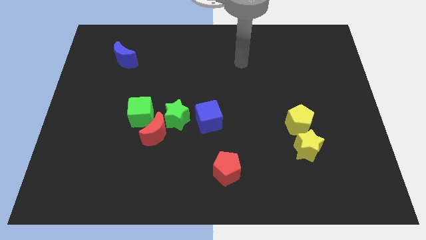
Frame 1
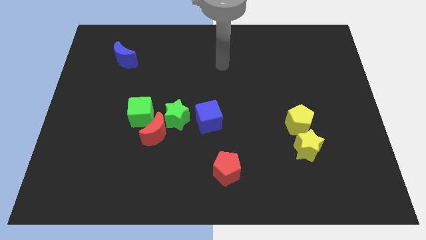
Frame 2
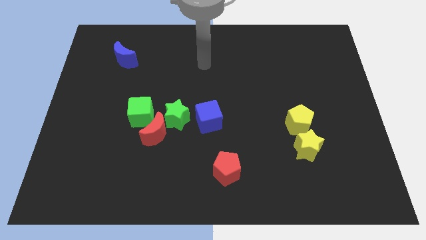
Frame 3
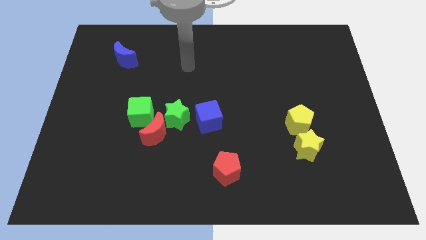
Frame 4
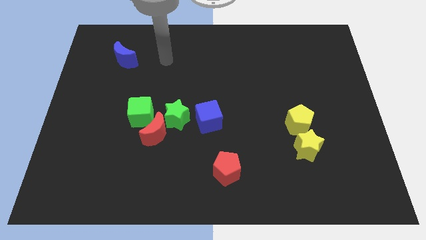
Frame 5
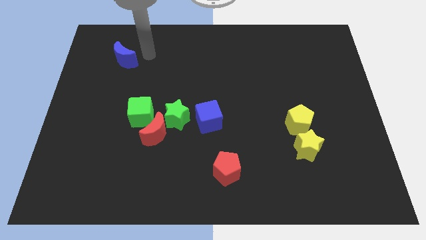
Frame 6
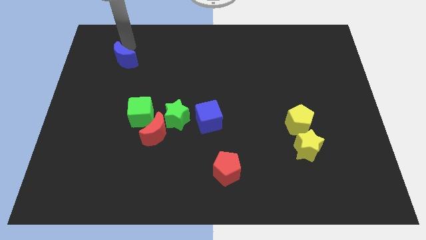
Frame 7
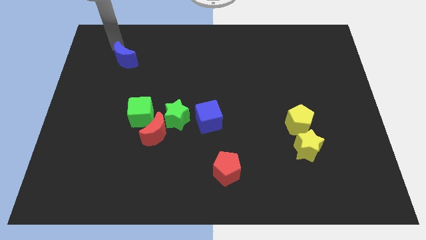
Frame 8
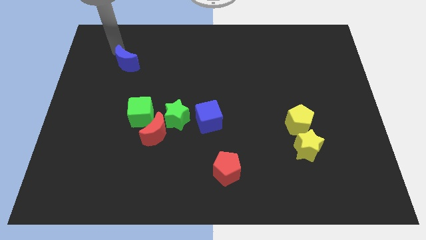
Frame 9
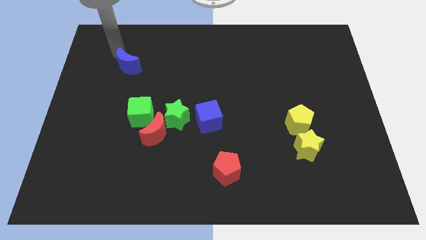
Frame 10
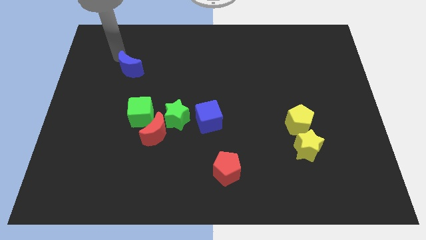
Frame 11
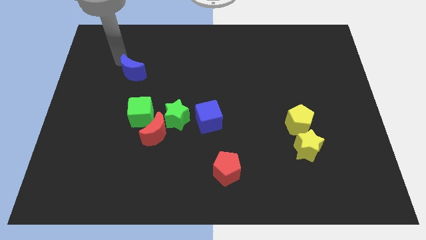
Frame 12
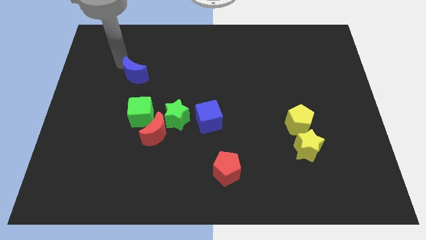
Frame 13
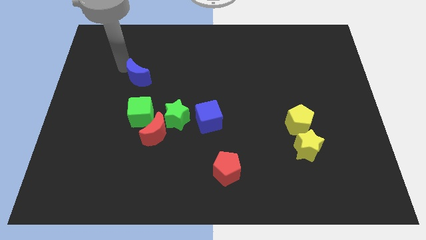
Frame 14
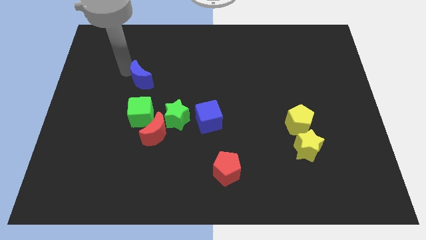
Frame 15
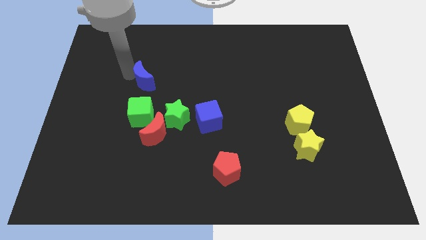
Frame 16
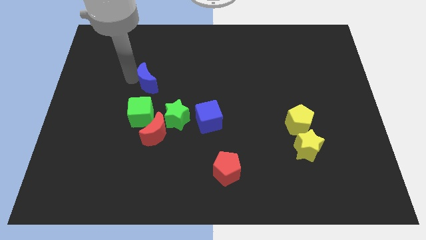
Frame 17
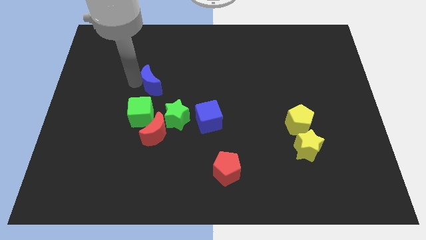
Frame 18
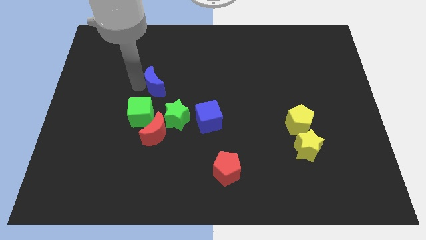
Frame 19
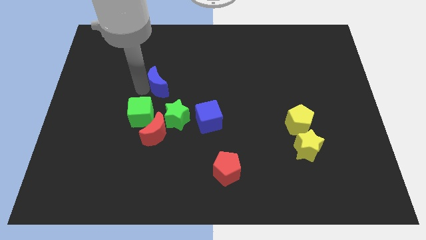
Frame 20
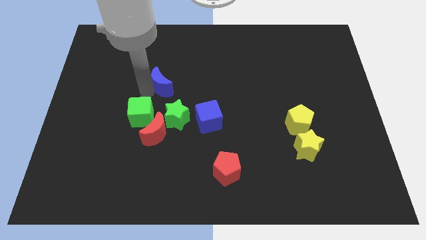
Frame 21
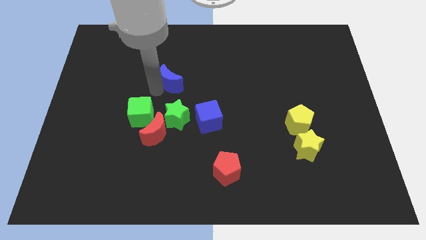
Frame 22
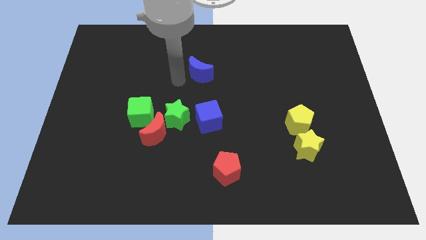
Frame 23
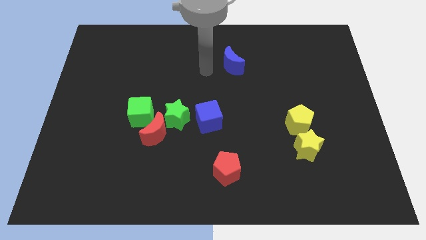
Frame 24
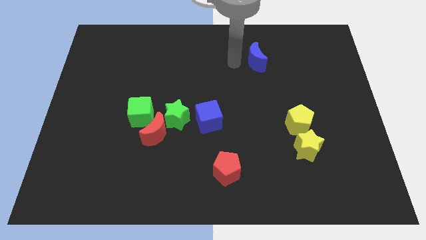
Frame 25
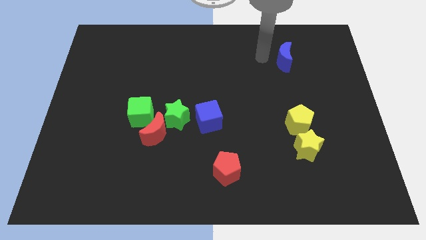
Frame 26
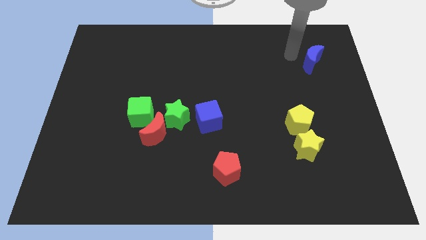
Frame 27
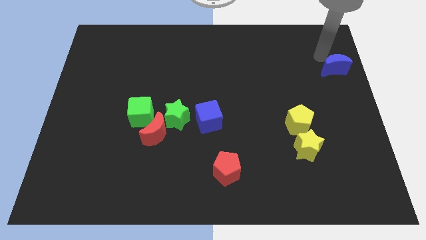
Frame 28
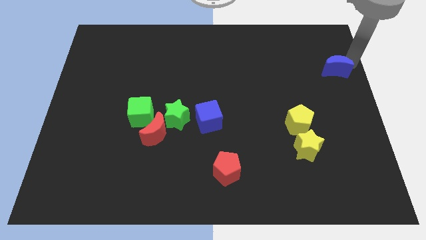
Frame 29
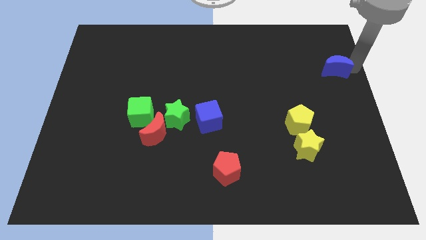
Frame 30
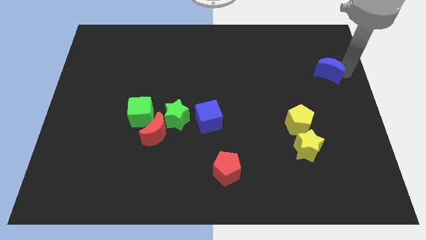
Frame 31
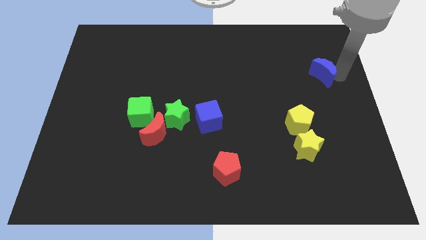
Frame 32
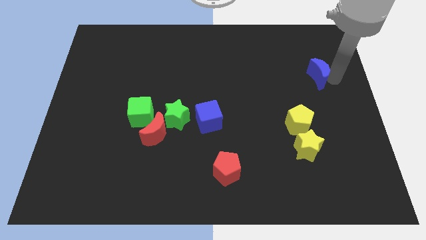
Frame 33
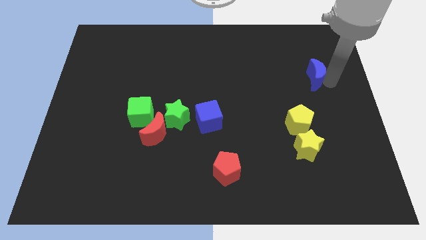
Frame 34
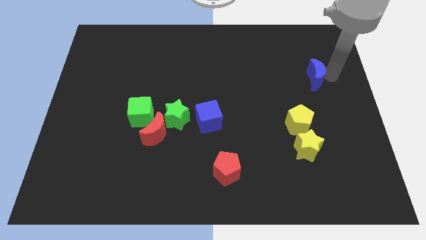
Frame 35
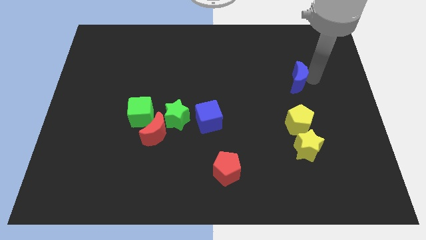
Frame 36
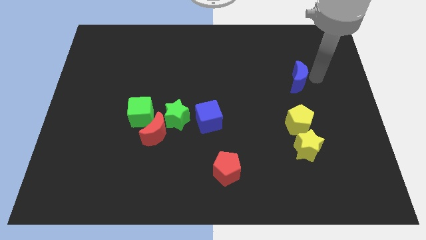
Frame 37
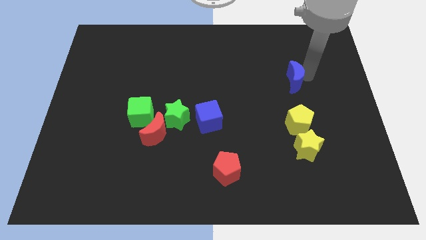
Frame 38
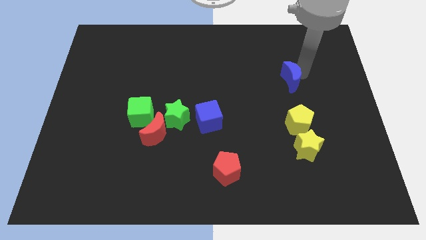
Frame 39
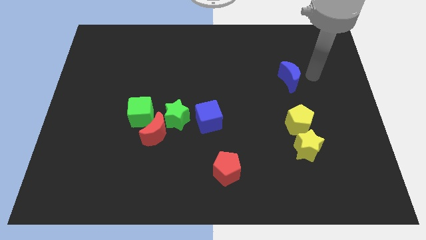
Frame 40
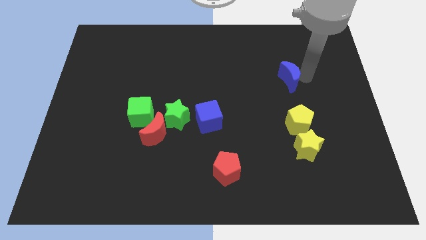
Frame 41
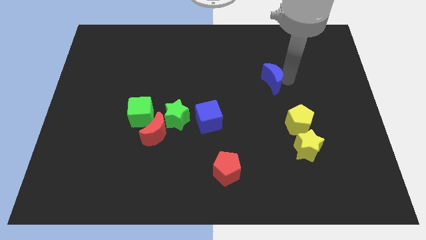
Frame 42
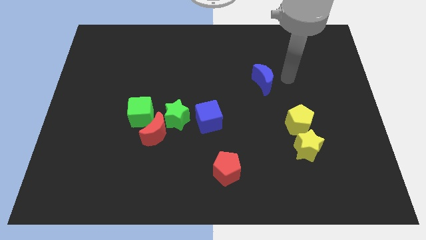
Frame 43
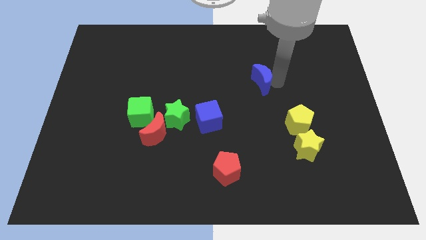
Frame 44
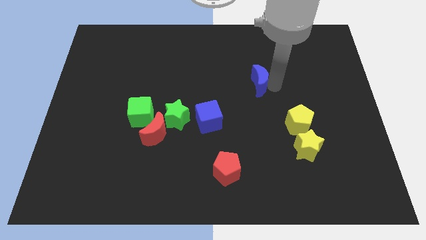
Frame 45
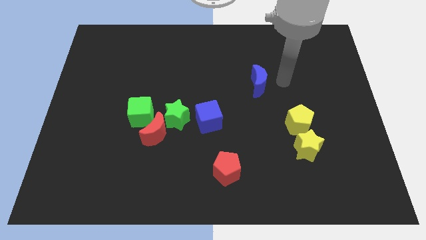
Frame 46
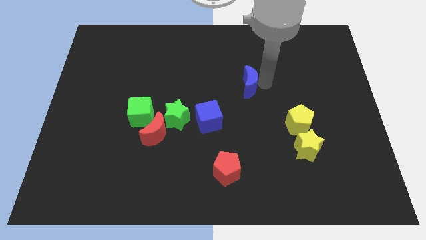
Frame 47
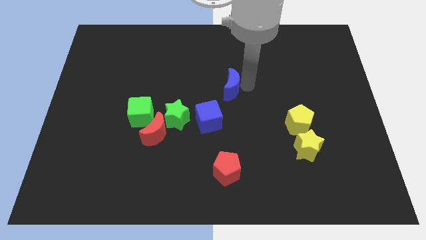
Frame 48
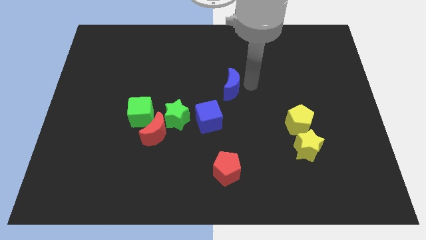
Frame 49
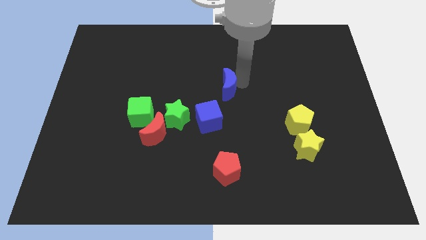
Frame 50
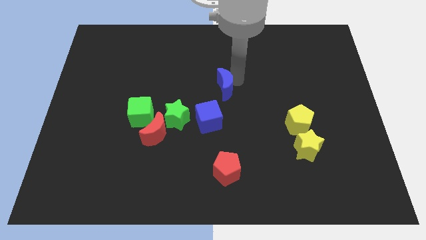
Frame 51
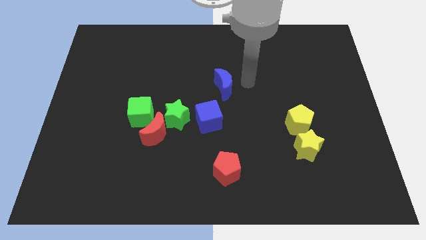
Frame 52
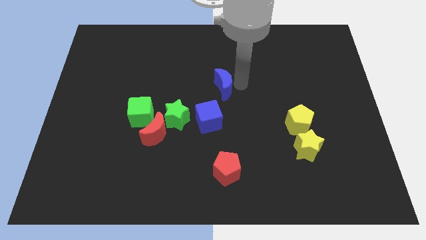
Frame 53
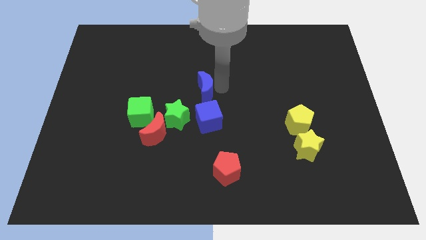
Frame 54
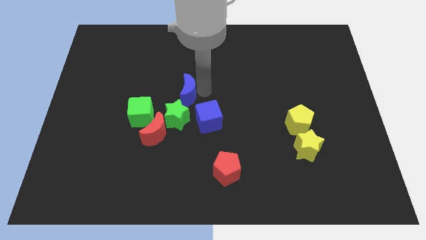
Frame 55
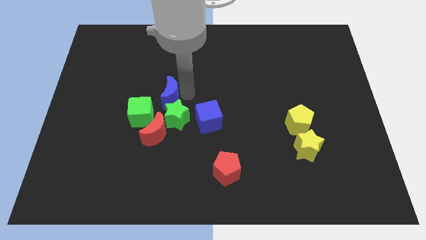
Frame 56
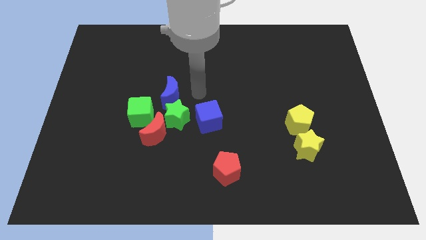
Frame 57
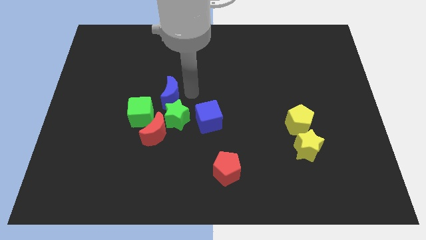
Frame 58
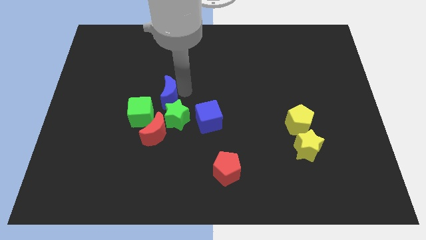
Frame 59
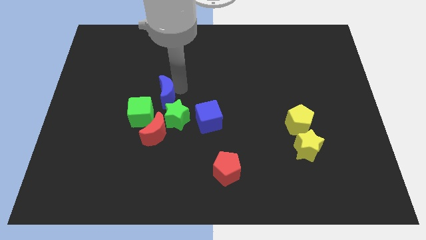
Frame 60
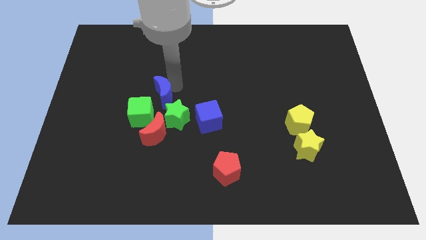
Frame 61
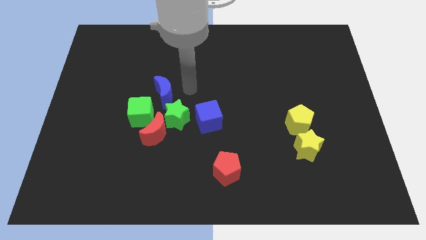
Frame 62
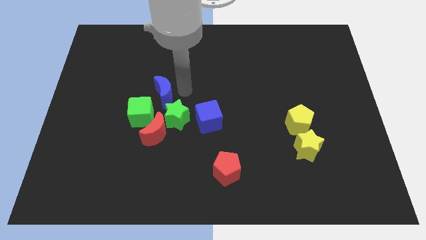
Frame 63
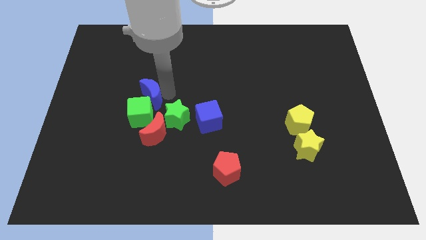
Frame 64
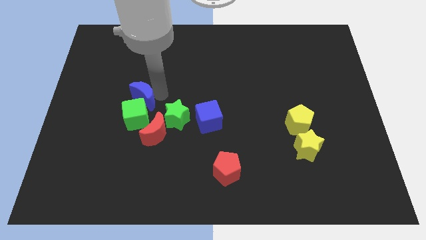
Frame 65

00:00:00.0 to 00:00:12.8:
push the blue moon to the top left of the red moon
